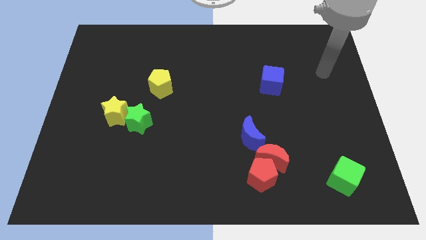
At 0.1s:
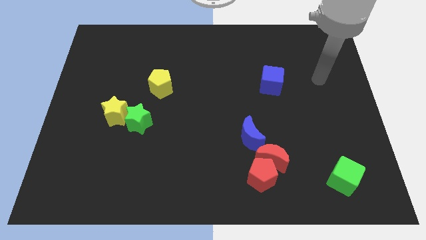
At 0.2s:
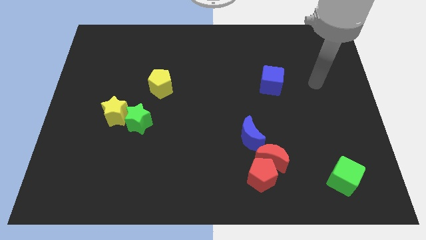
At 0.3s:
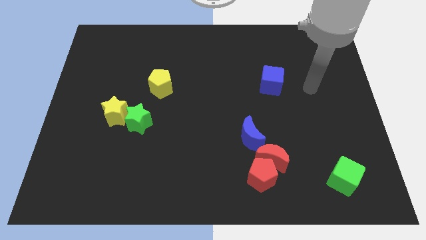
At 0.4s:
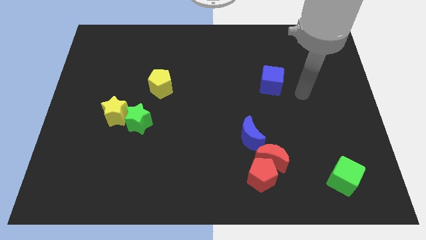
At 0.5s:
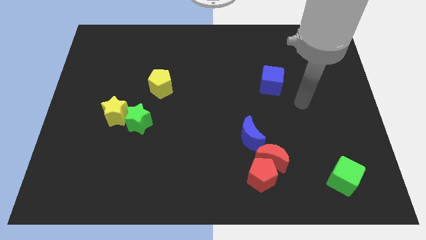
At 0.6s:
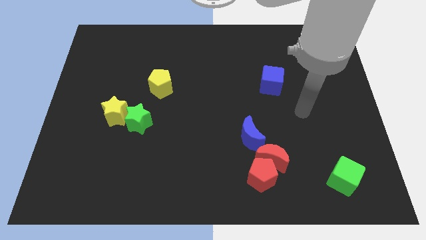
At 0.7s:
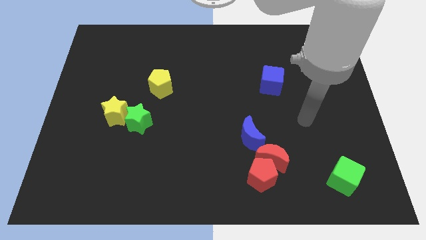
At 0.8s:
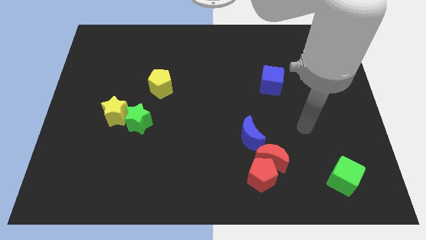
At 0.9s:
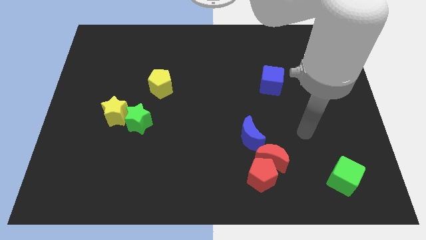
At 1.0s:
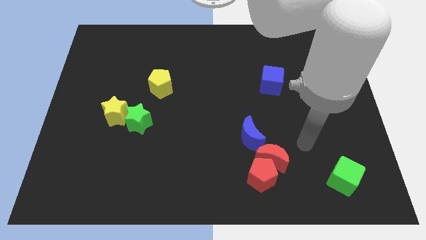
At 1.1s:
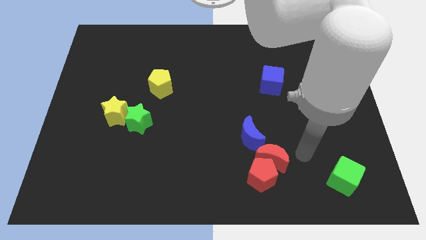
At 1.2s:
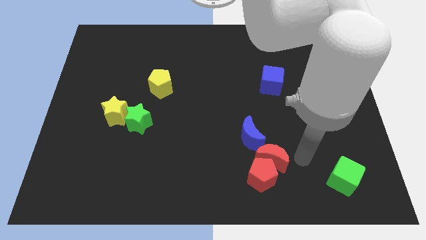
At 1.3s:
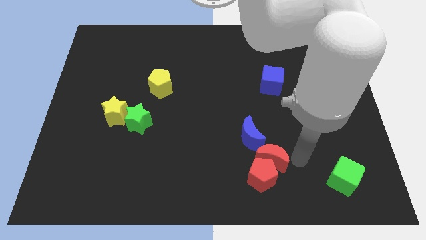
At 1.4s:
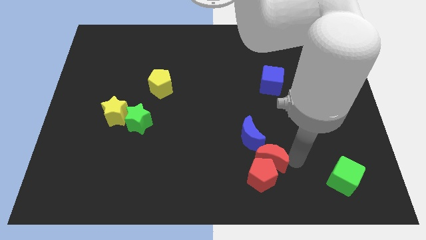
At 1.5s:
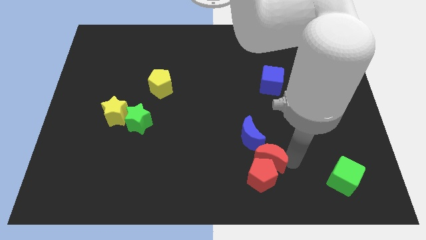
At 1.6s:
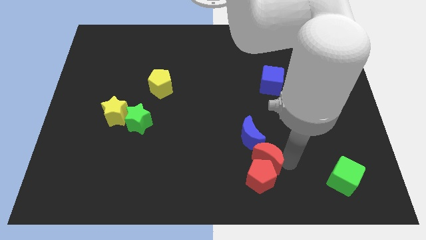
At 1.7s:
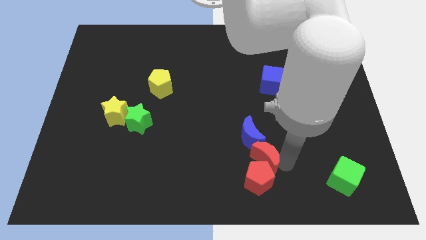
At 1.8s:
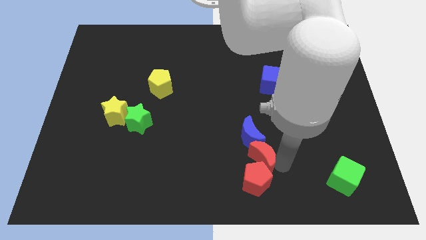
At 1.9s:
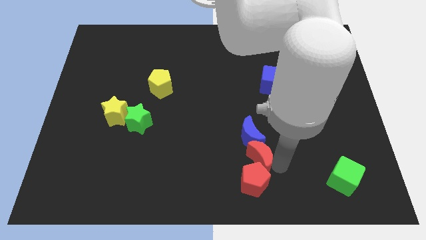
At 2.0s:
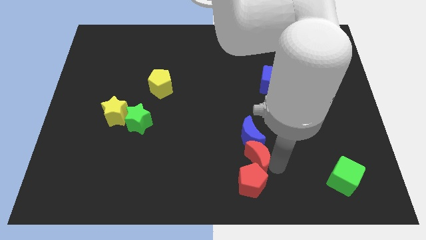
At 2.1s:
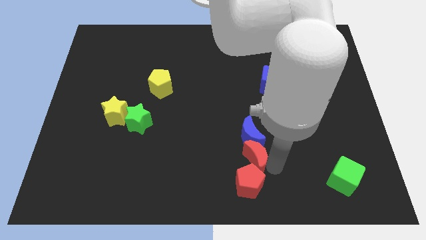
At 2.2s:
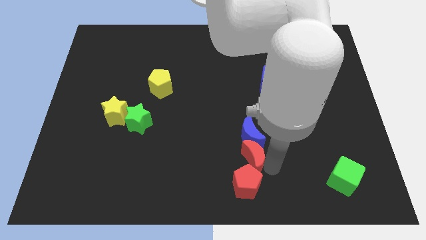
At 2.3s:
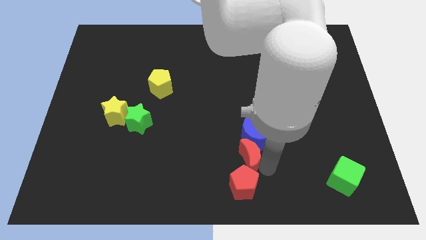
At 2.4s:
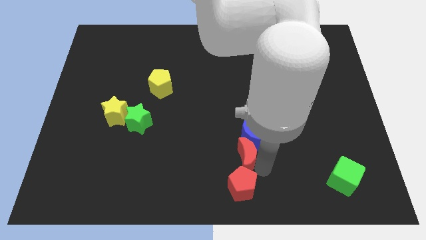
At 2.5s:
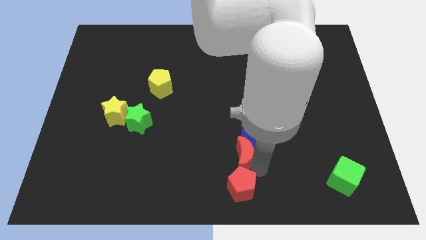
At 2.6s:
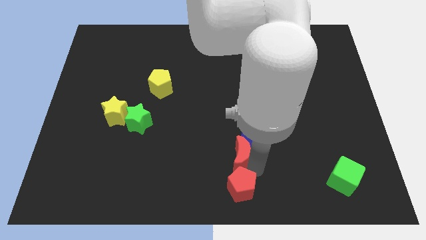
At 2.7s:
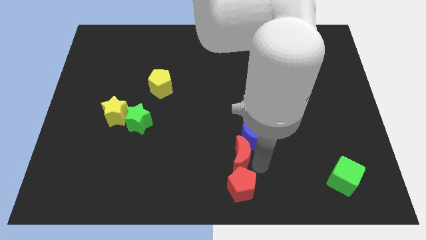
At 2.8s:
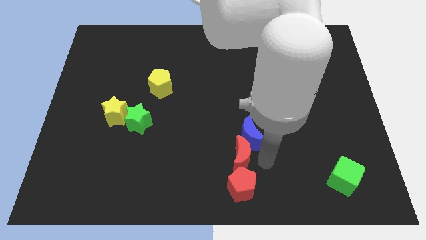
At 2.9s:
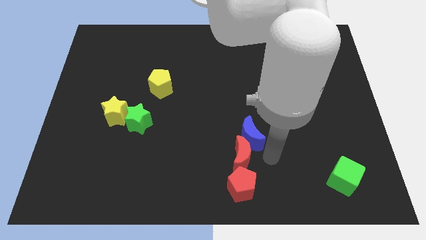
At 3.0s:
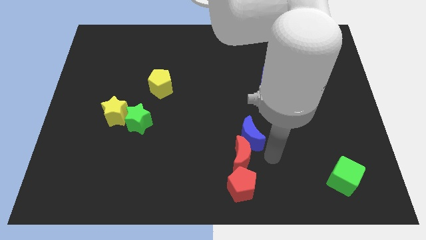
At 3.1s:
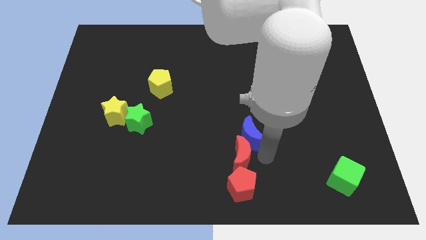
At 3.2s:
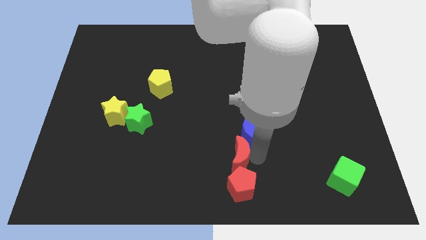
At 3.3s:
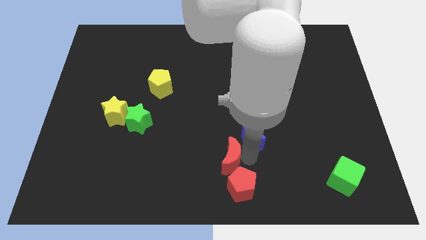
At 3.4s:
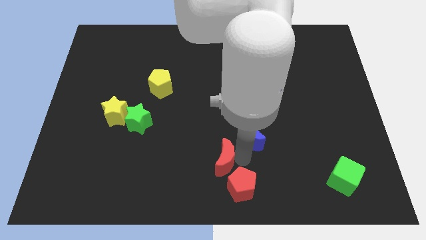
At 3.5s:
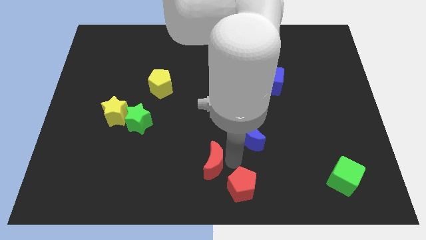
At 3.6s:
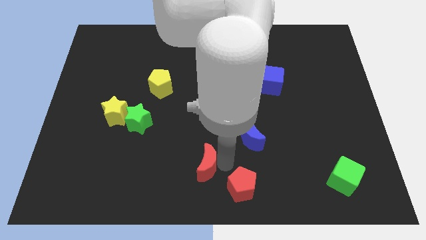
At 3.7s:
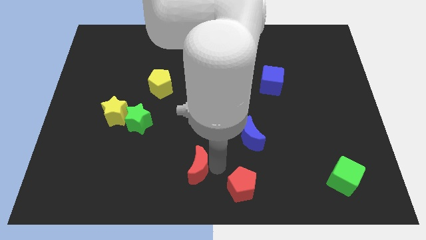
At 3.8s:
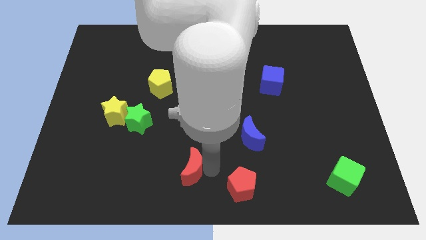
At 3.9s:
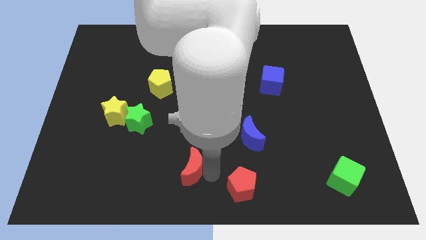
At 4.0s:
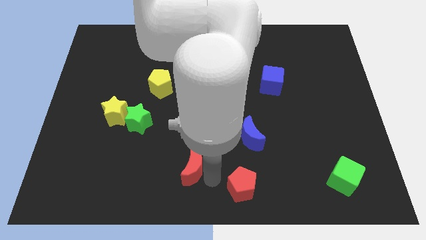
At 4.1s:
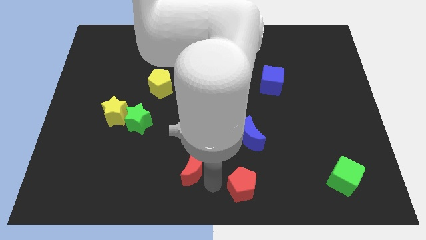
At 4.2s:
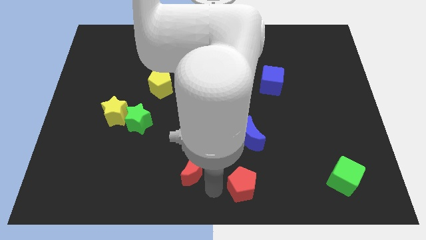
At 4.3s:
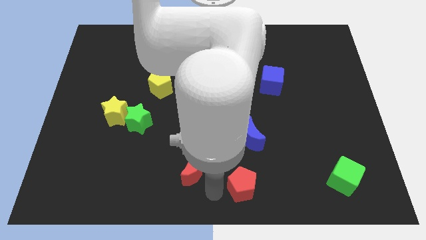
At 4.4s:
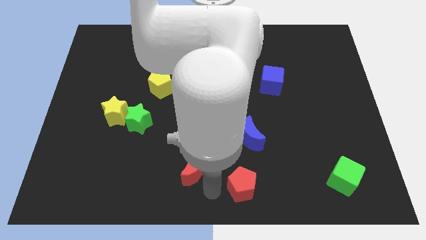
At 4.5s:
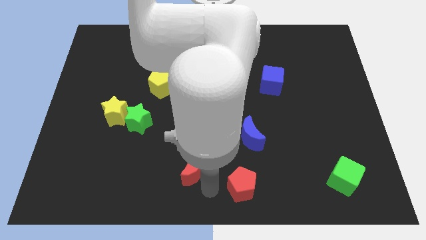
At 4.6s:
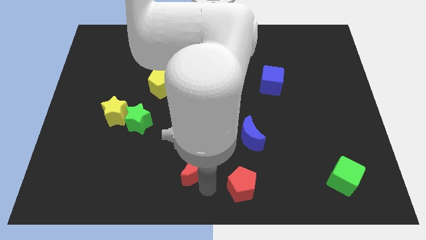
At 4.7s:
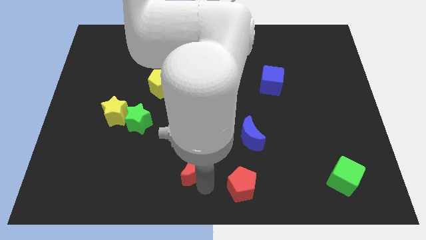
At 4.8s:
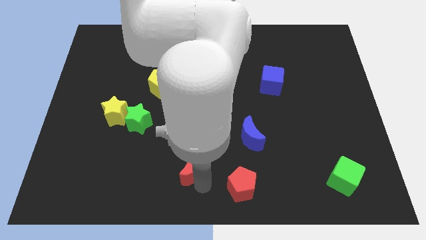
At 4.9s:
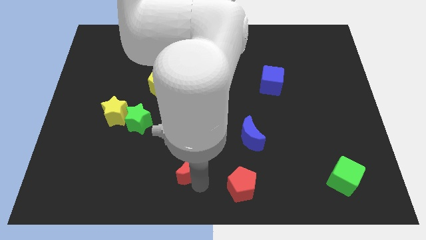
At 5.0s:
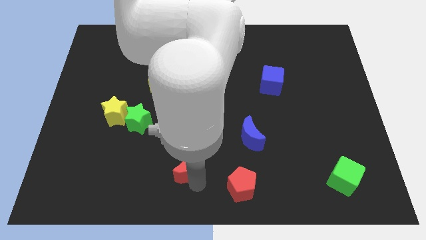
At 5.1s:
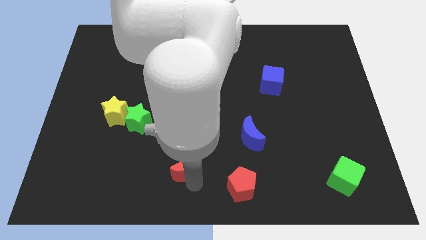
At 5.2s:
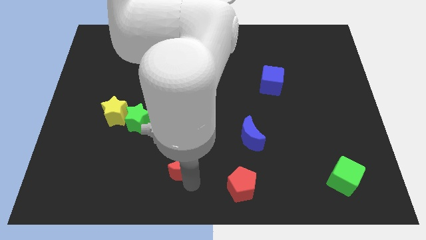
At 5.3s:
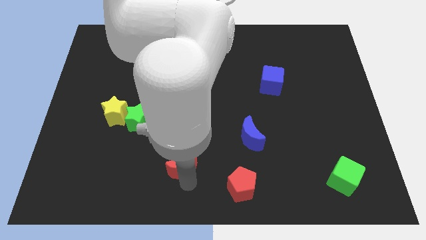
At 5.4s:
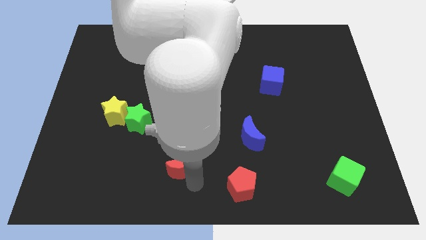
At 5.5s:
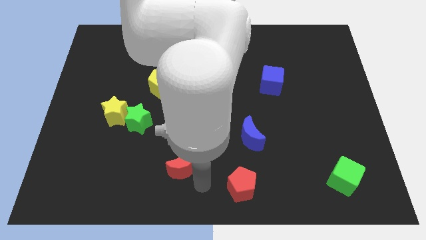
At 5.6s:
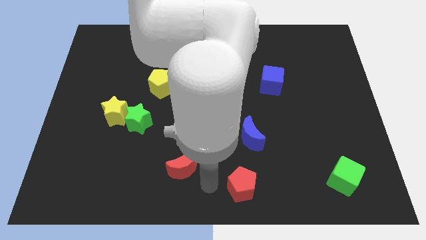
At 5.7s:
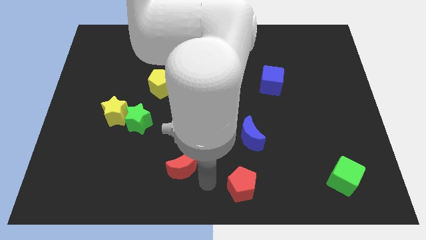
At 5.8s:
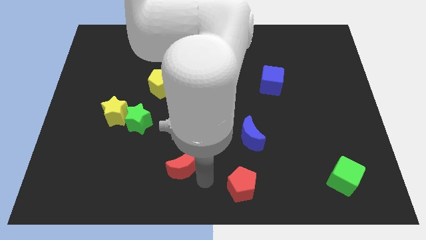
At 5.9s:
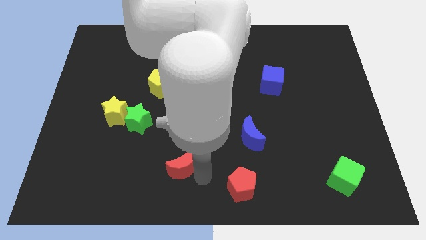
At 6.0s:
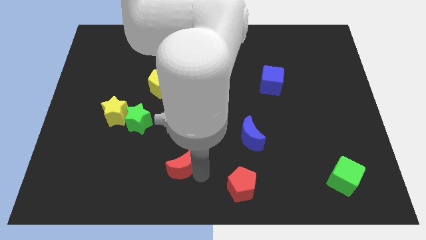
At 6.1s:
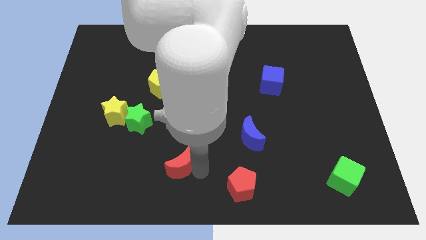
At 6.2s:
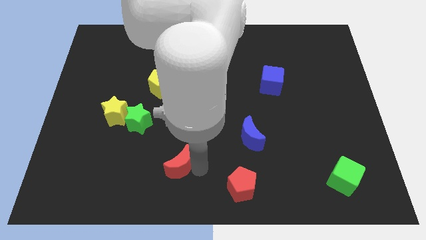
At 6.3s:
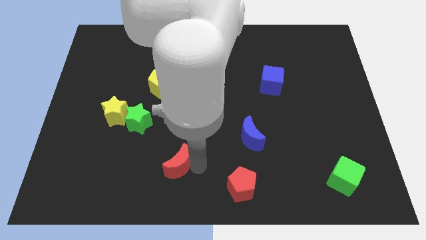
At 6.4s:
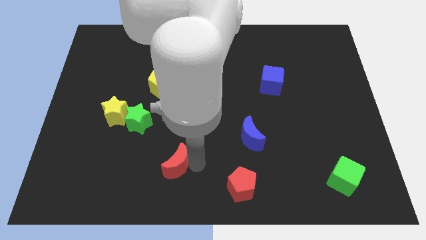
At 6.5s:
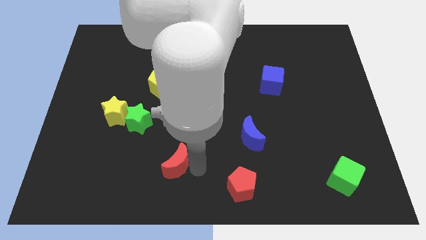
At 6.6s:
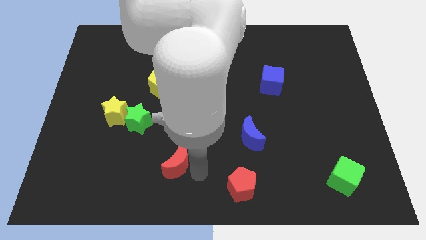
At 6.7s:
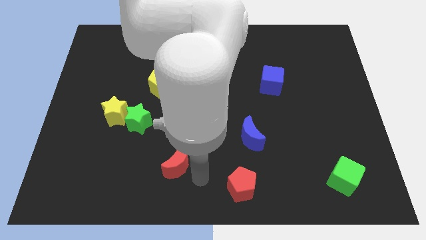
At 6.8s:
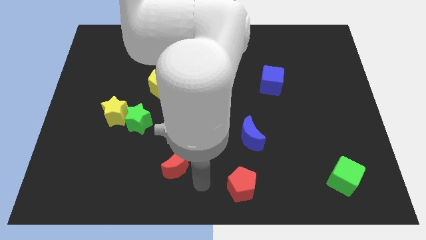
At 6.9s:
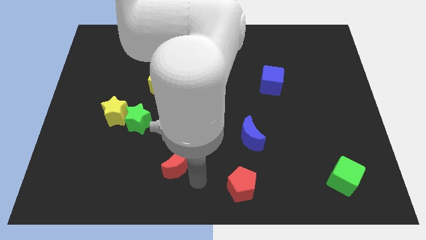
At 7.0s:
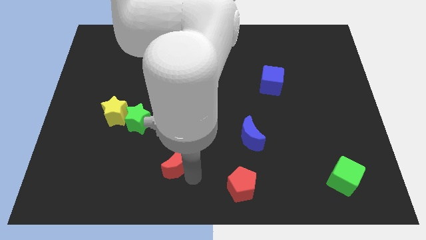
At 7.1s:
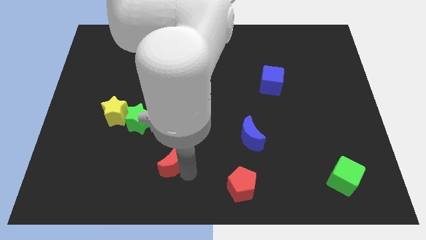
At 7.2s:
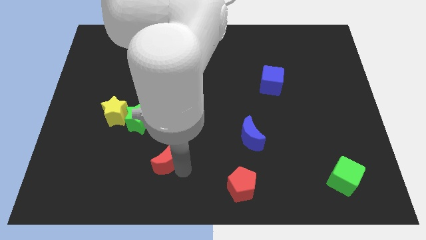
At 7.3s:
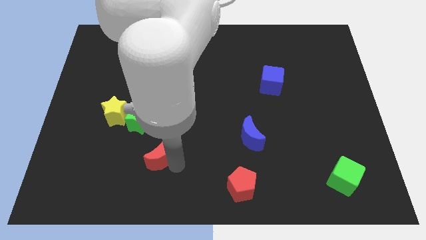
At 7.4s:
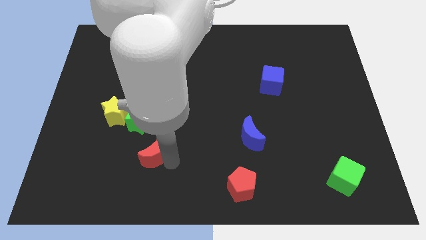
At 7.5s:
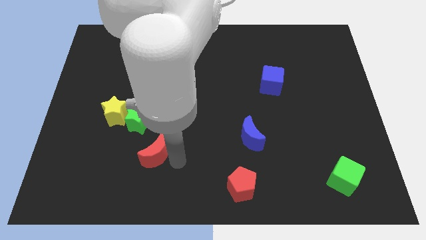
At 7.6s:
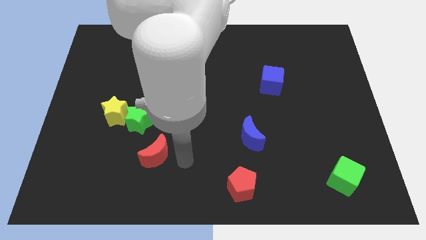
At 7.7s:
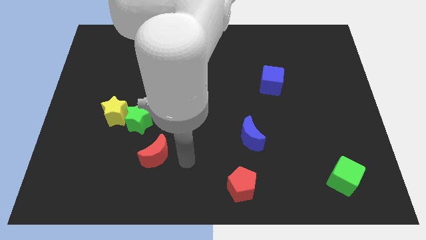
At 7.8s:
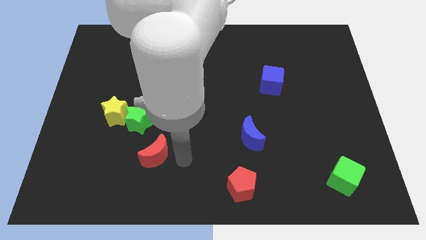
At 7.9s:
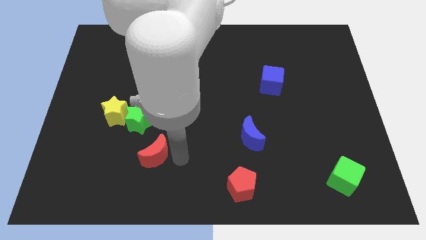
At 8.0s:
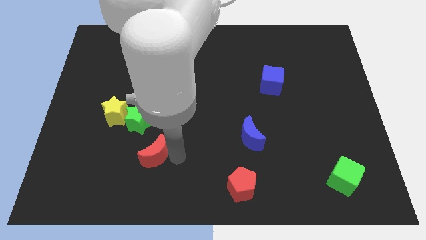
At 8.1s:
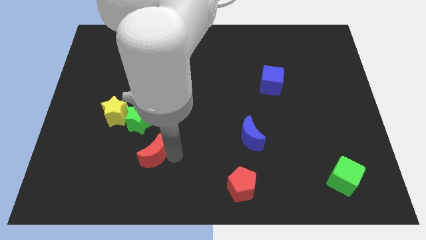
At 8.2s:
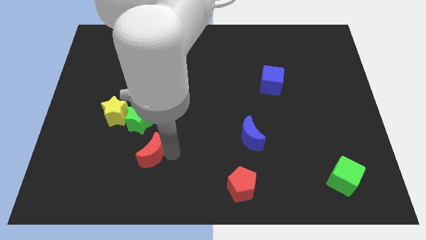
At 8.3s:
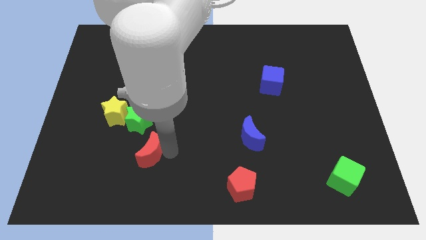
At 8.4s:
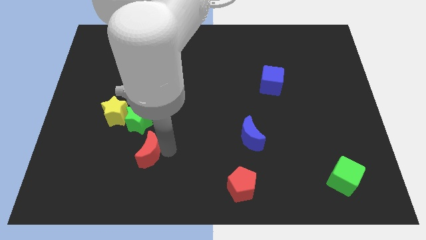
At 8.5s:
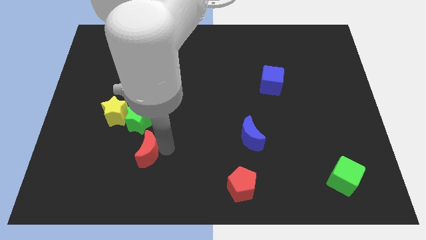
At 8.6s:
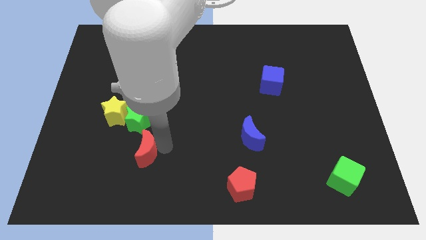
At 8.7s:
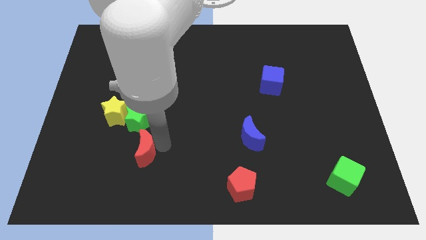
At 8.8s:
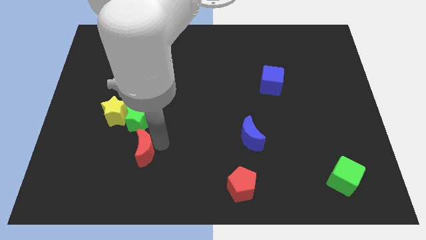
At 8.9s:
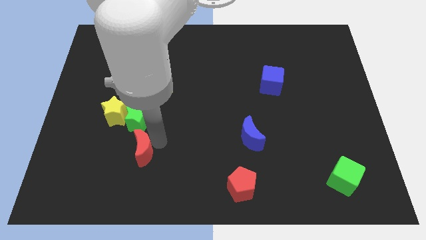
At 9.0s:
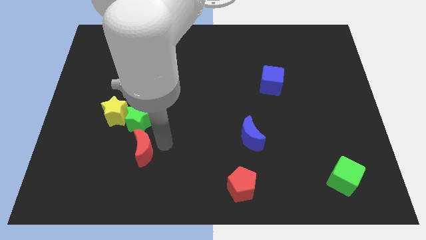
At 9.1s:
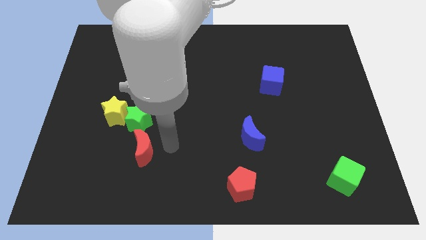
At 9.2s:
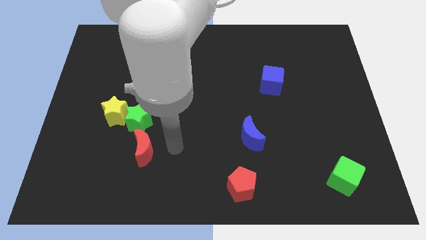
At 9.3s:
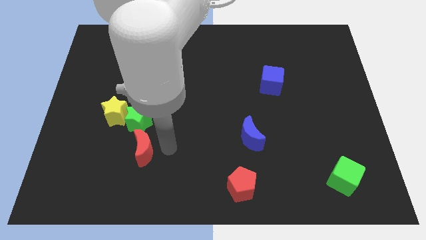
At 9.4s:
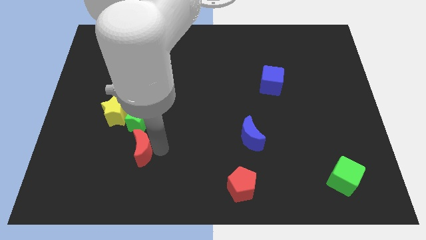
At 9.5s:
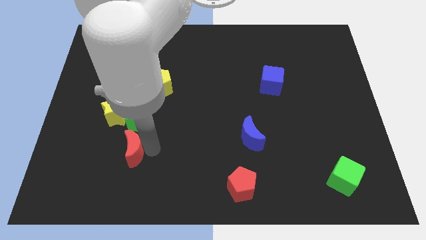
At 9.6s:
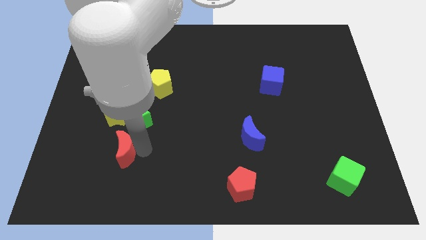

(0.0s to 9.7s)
put the red moon below the yellow star
